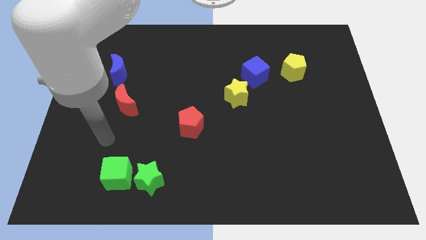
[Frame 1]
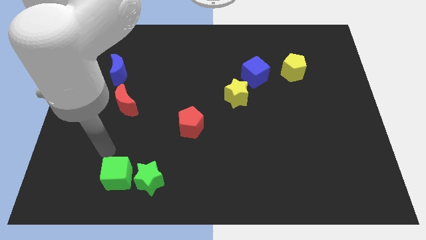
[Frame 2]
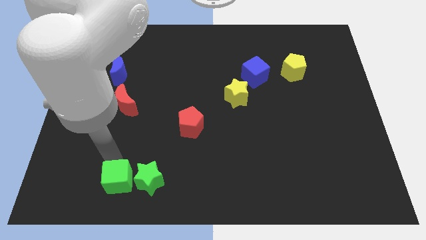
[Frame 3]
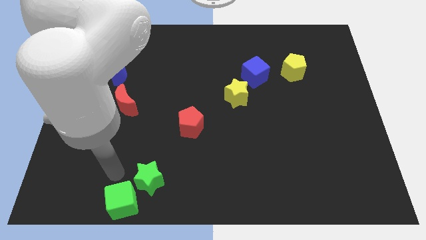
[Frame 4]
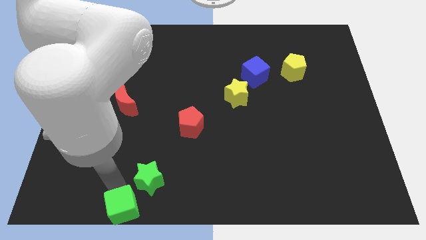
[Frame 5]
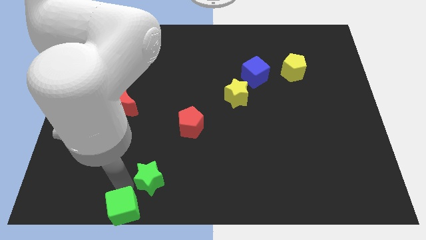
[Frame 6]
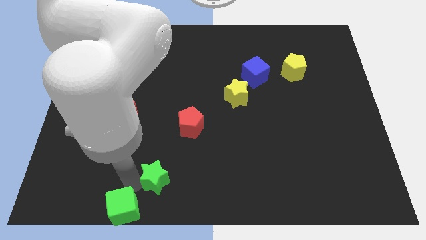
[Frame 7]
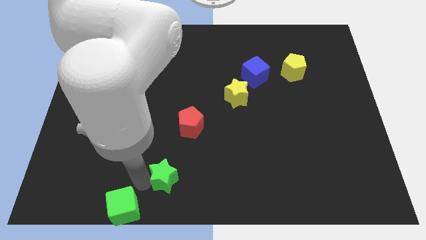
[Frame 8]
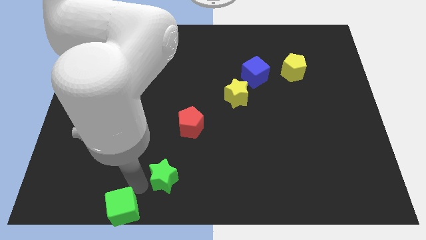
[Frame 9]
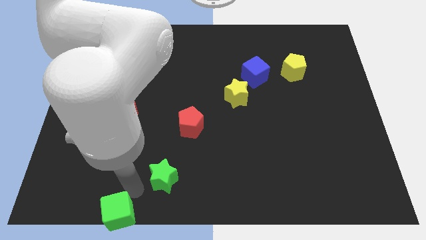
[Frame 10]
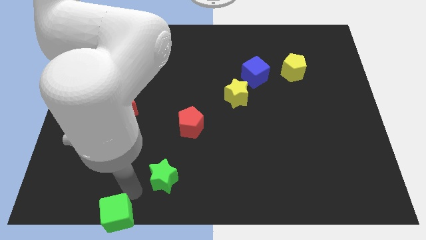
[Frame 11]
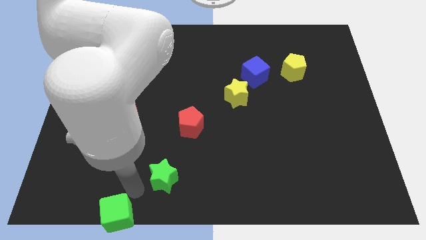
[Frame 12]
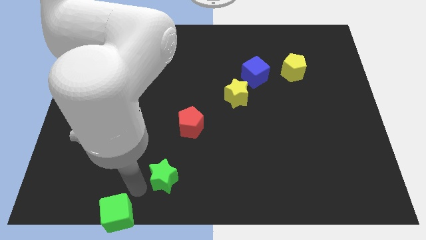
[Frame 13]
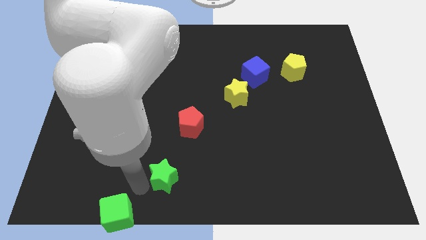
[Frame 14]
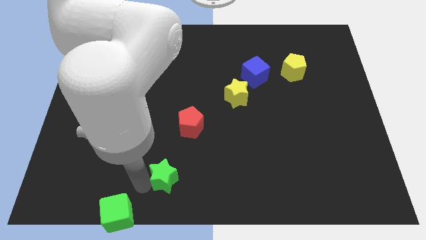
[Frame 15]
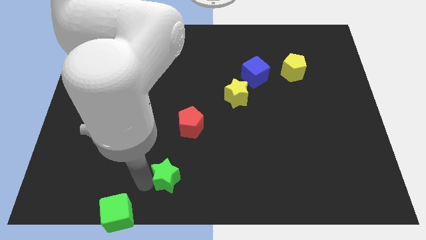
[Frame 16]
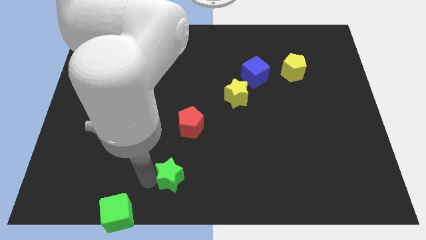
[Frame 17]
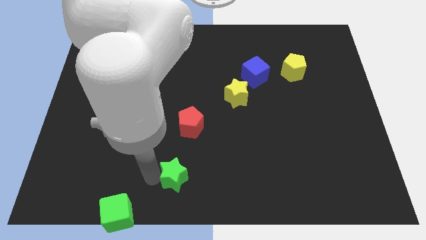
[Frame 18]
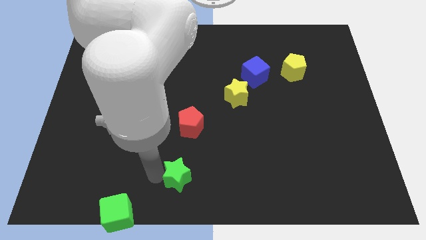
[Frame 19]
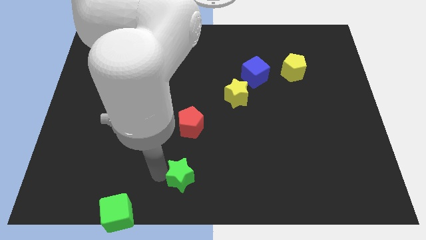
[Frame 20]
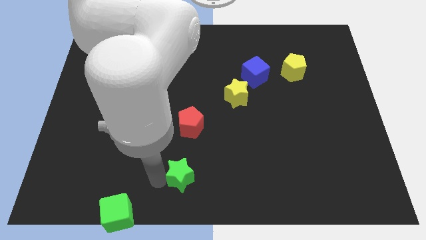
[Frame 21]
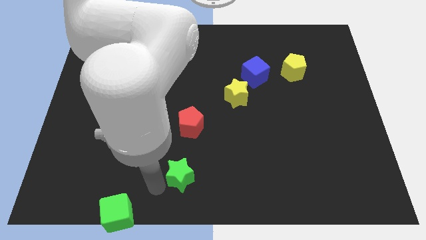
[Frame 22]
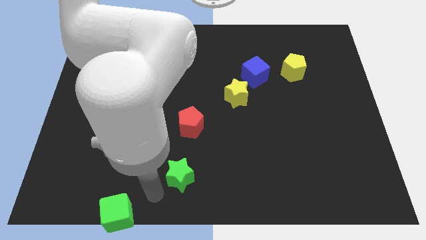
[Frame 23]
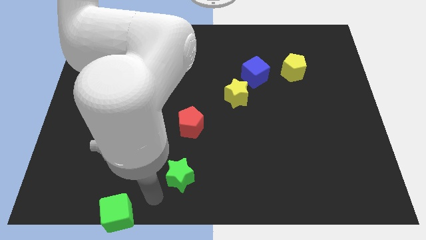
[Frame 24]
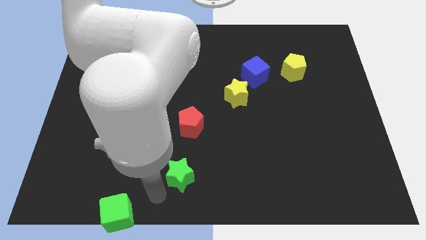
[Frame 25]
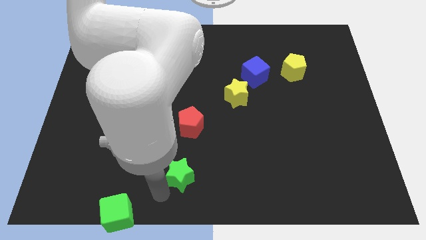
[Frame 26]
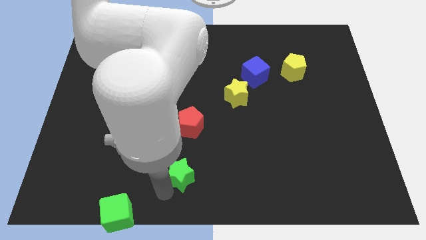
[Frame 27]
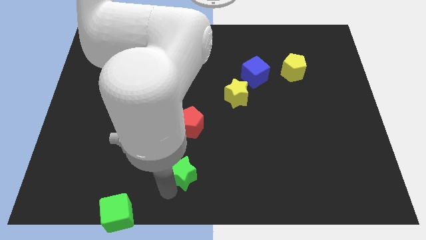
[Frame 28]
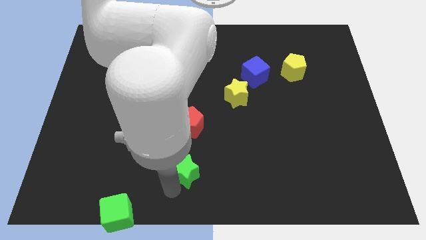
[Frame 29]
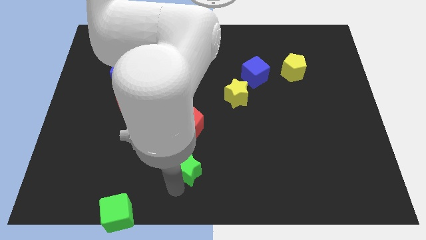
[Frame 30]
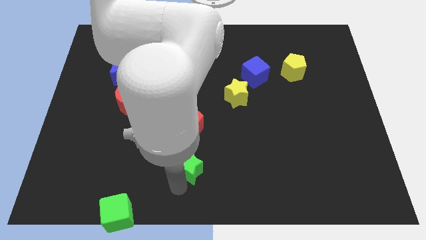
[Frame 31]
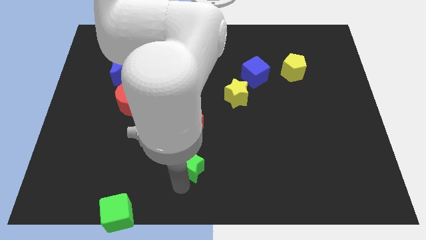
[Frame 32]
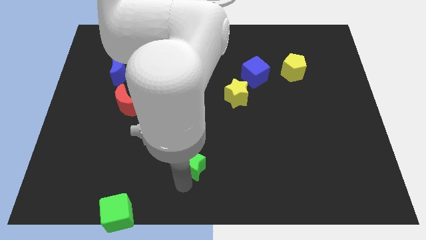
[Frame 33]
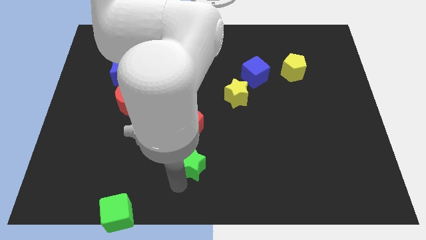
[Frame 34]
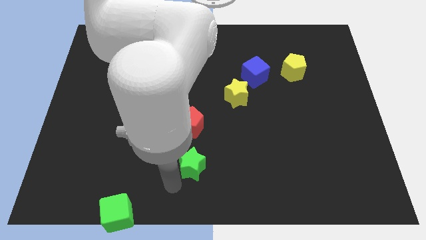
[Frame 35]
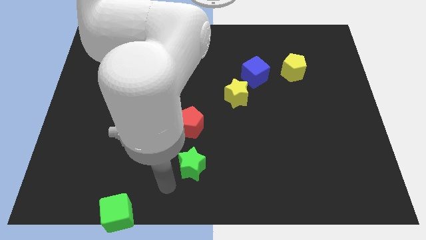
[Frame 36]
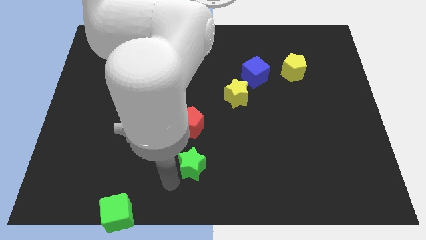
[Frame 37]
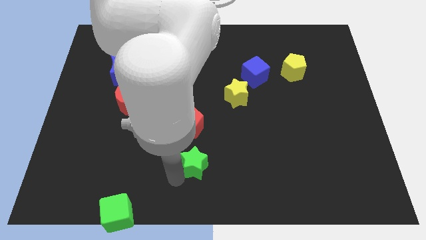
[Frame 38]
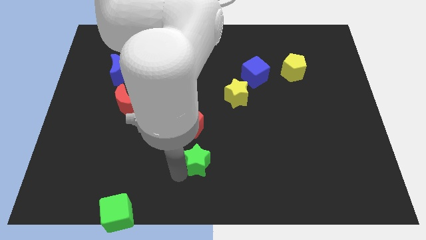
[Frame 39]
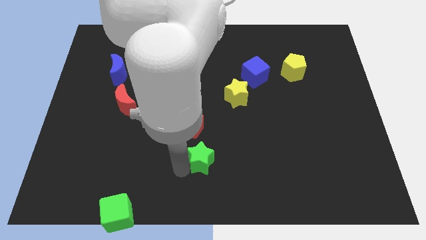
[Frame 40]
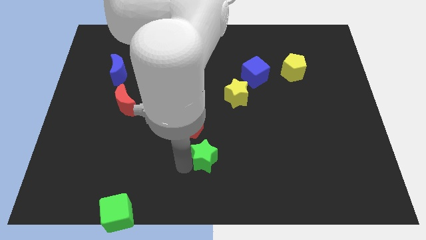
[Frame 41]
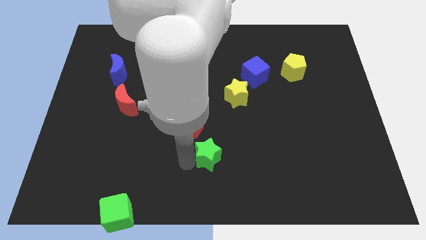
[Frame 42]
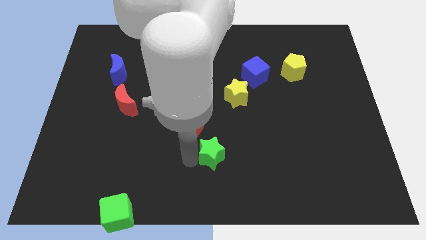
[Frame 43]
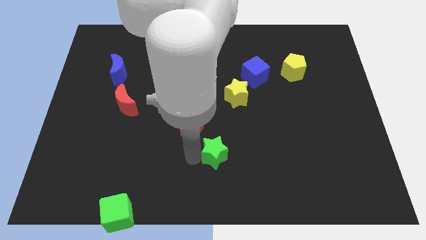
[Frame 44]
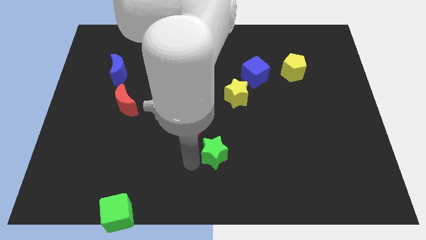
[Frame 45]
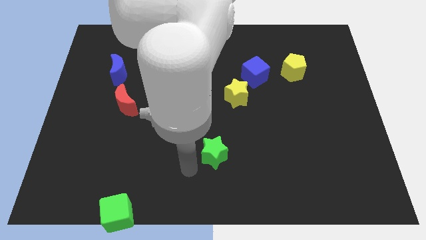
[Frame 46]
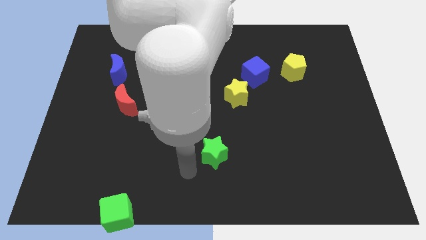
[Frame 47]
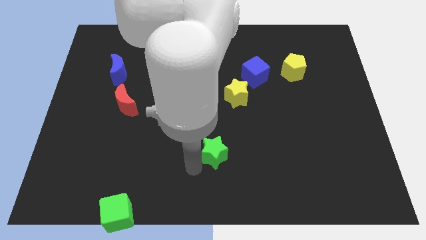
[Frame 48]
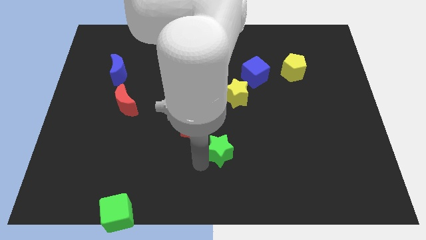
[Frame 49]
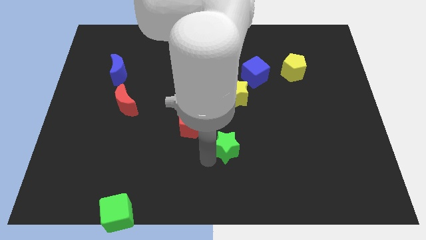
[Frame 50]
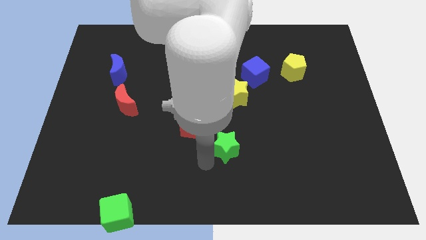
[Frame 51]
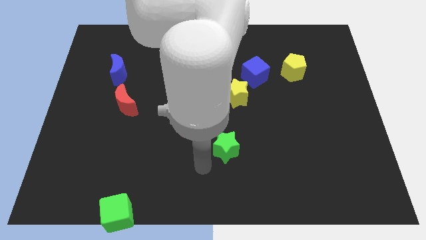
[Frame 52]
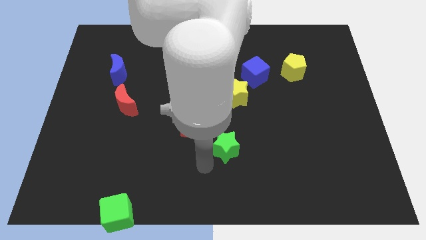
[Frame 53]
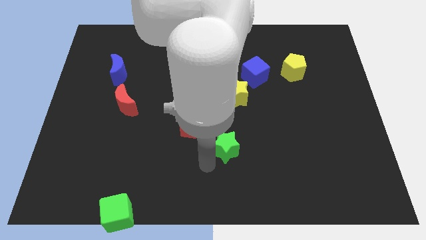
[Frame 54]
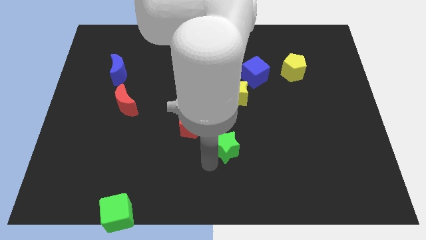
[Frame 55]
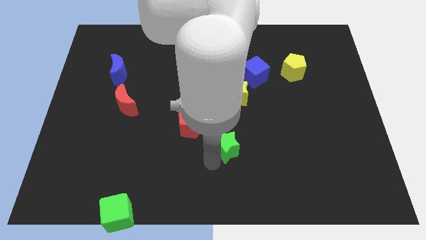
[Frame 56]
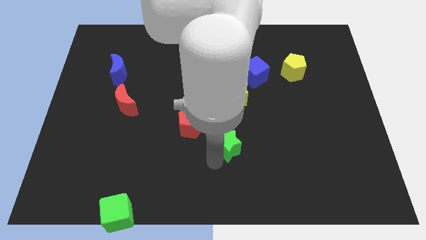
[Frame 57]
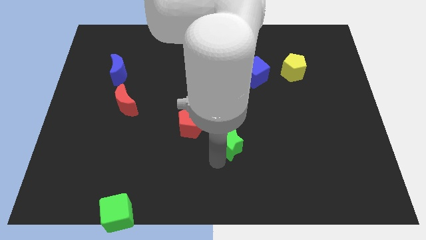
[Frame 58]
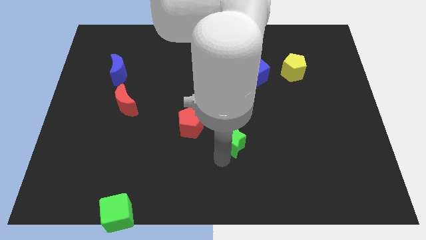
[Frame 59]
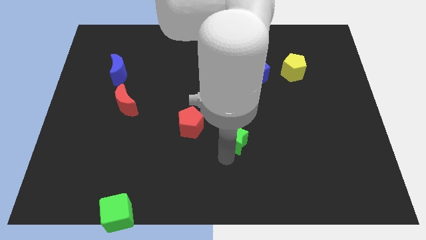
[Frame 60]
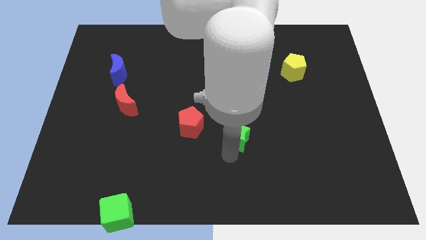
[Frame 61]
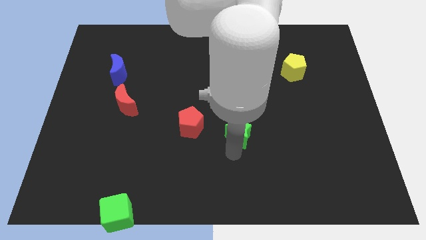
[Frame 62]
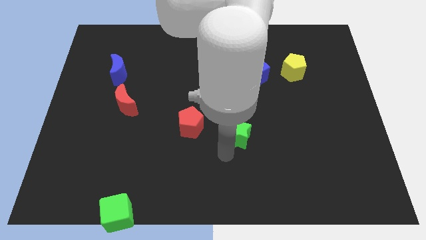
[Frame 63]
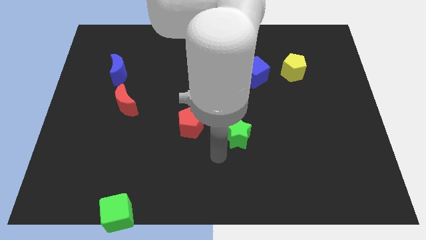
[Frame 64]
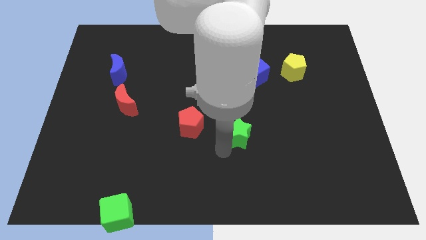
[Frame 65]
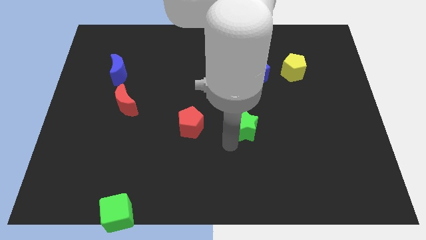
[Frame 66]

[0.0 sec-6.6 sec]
push the green star upwards and then to the right

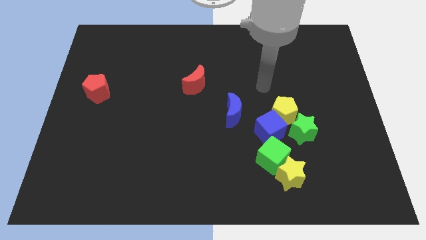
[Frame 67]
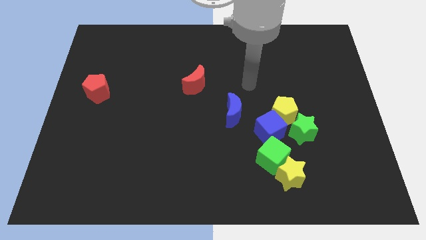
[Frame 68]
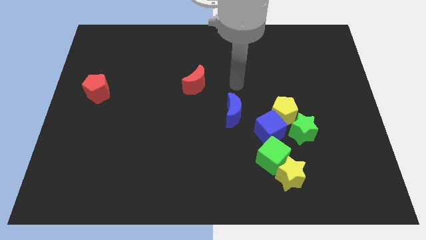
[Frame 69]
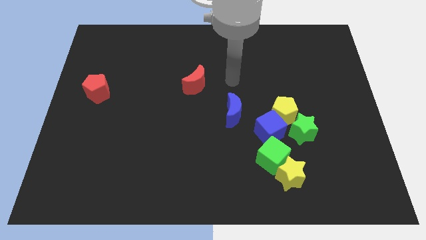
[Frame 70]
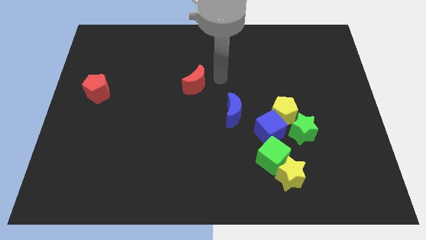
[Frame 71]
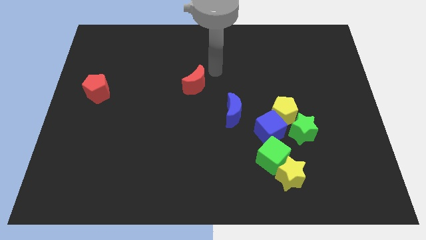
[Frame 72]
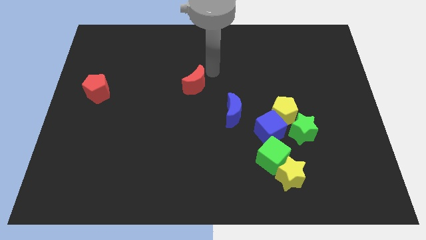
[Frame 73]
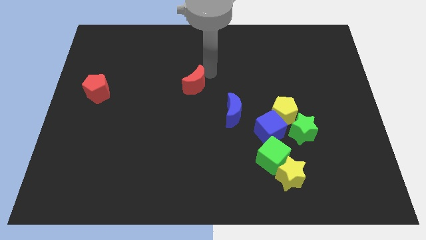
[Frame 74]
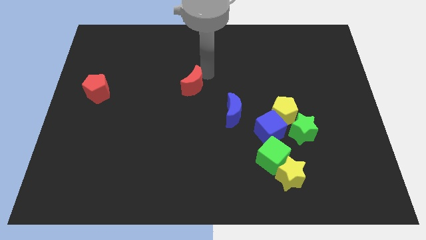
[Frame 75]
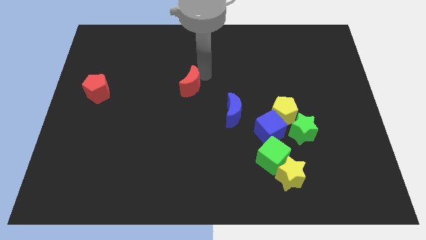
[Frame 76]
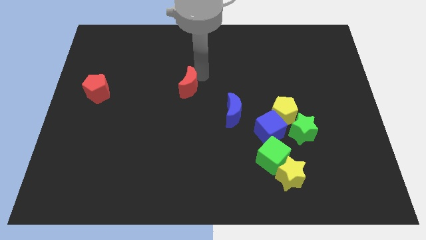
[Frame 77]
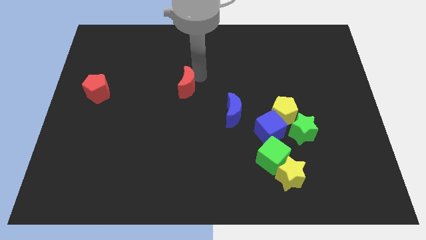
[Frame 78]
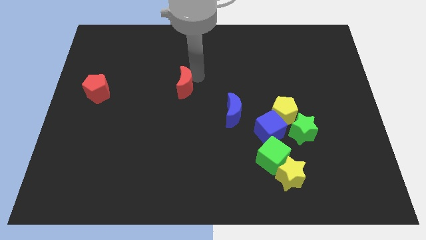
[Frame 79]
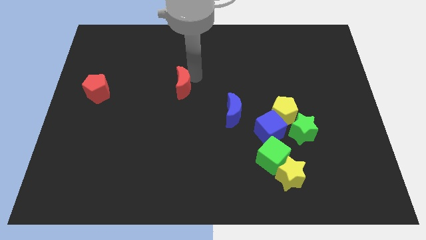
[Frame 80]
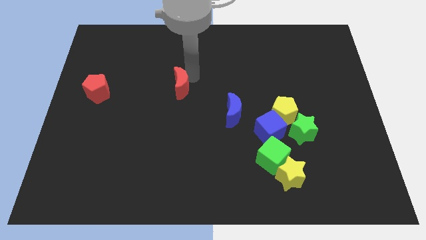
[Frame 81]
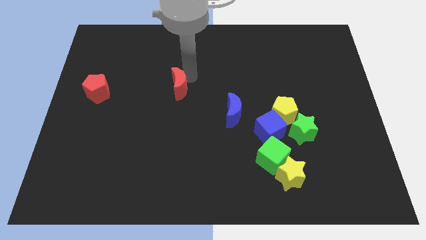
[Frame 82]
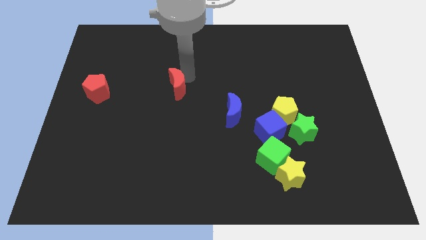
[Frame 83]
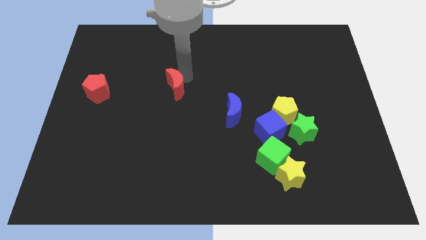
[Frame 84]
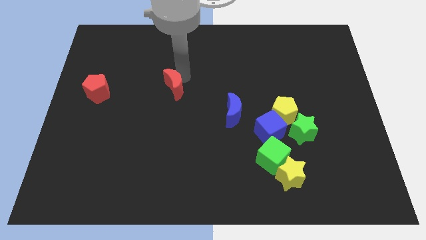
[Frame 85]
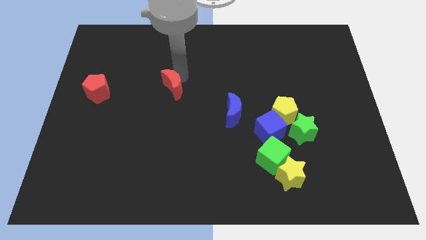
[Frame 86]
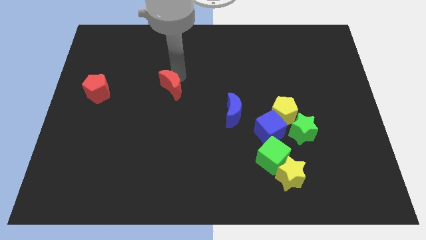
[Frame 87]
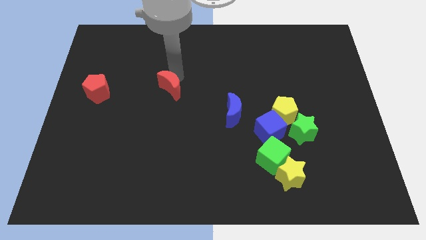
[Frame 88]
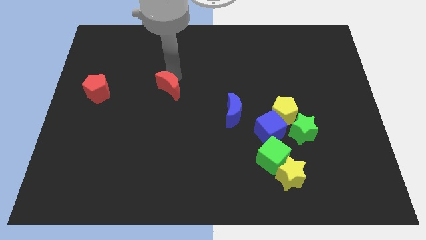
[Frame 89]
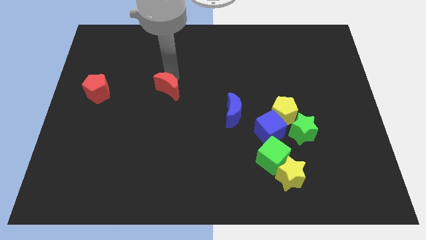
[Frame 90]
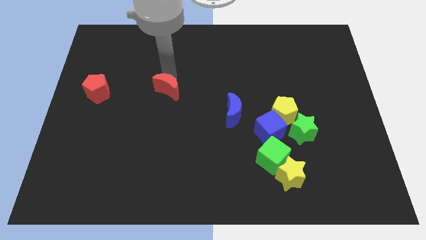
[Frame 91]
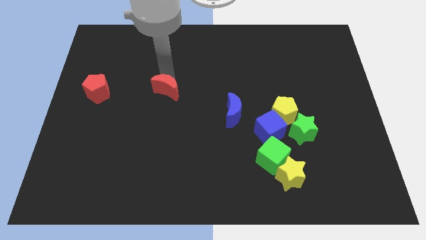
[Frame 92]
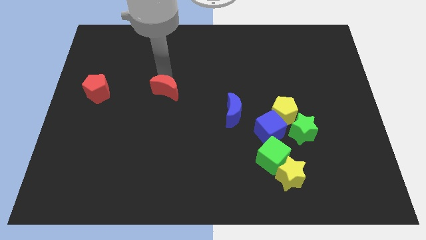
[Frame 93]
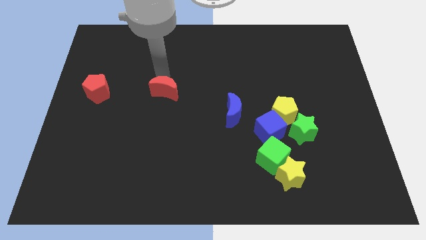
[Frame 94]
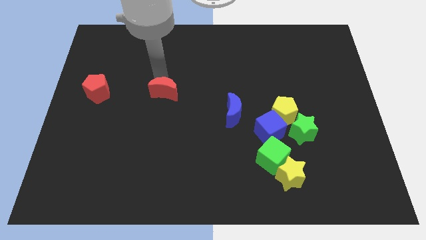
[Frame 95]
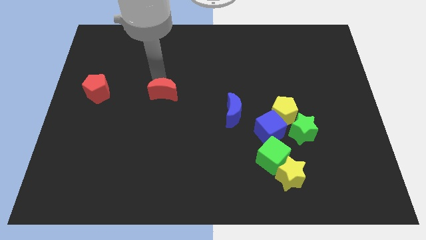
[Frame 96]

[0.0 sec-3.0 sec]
slide the red moon down and then left a little
